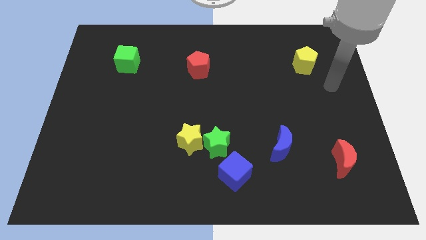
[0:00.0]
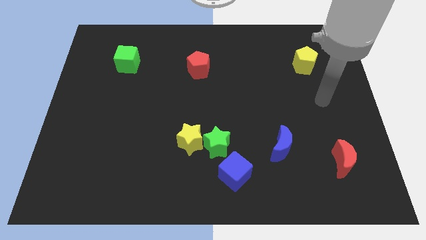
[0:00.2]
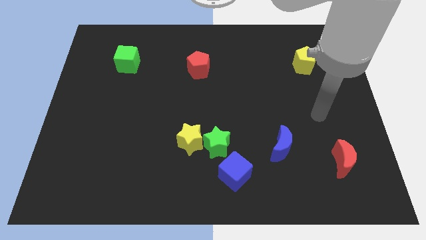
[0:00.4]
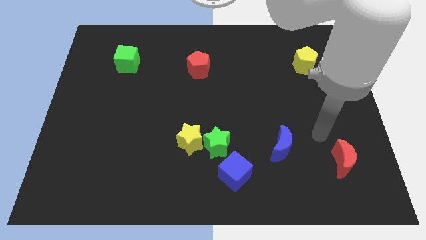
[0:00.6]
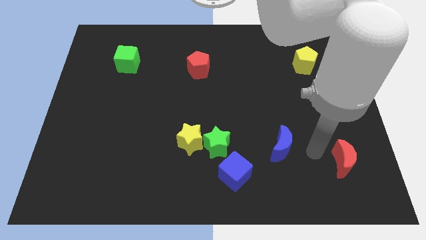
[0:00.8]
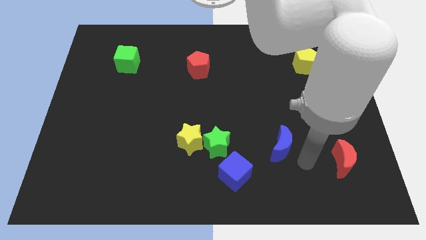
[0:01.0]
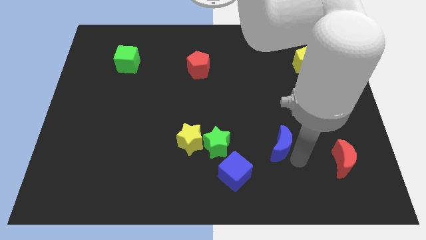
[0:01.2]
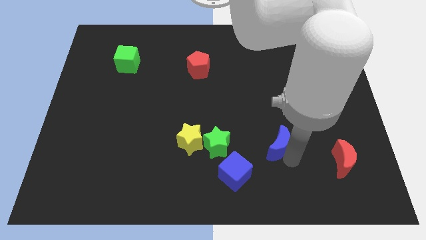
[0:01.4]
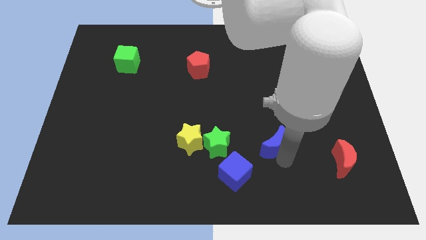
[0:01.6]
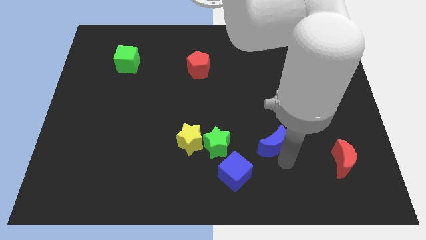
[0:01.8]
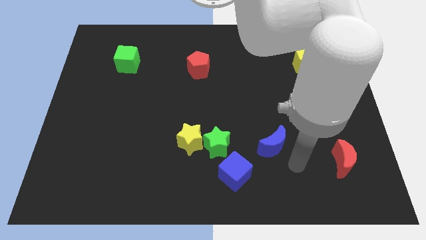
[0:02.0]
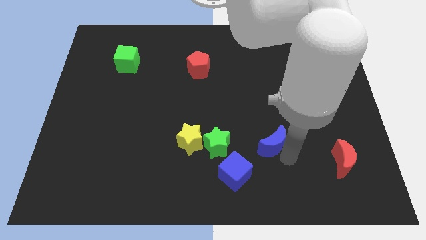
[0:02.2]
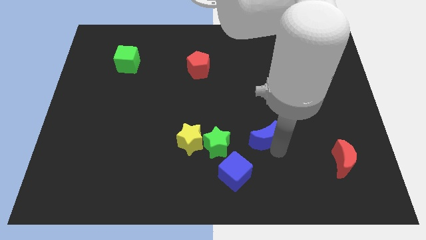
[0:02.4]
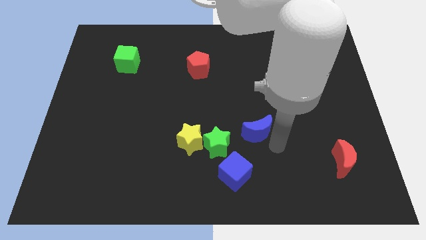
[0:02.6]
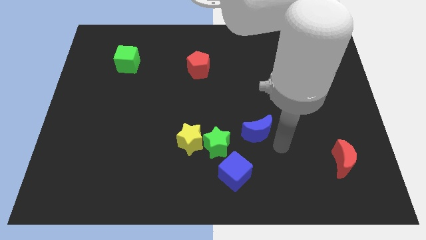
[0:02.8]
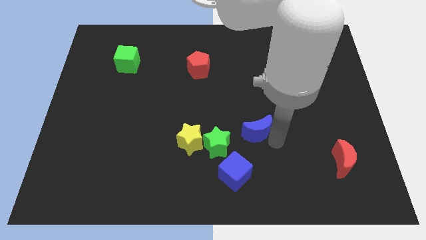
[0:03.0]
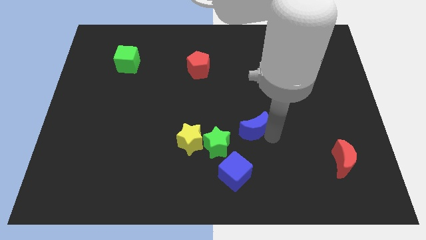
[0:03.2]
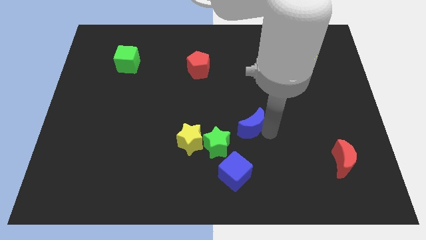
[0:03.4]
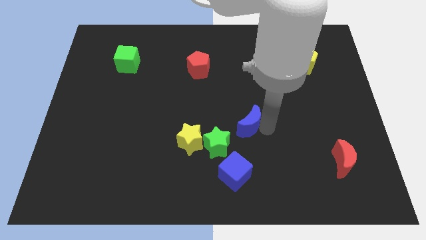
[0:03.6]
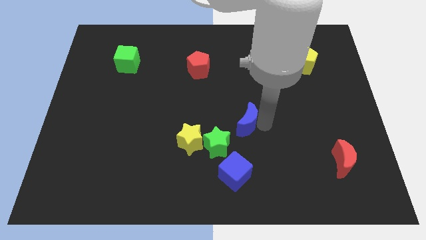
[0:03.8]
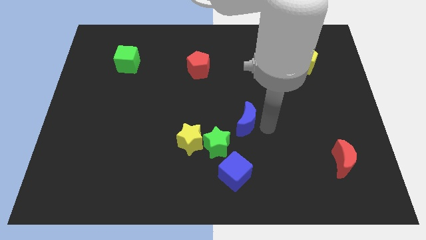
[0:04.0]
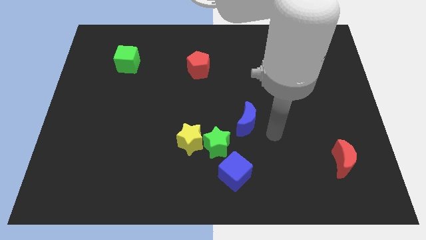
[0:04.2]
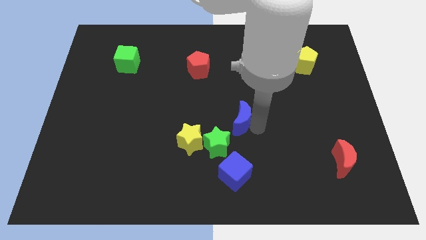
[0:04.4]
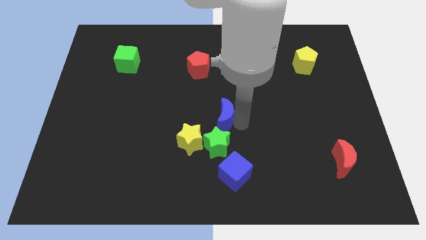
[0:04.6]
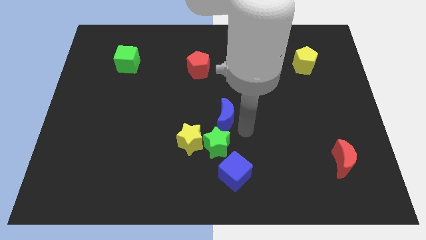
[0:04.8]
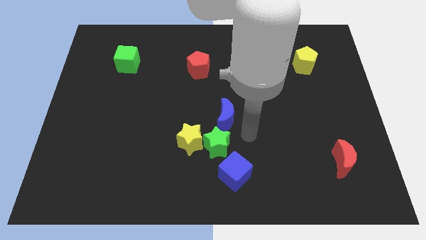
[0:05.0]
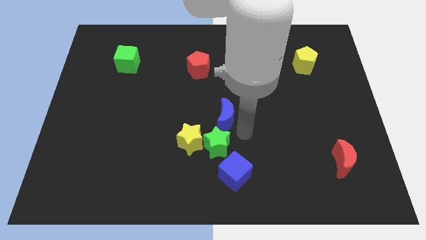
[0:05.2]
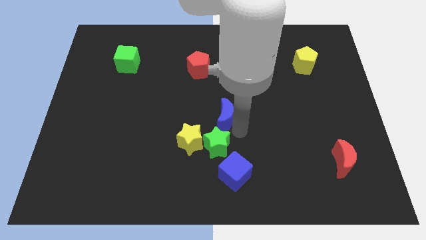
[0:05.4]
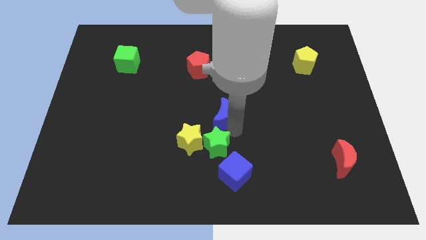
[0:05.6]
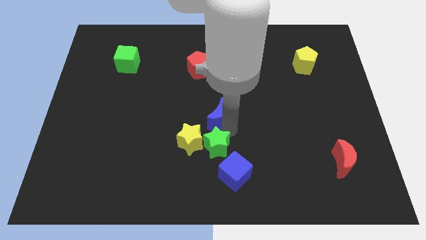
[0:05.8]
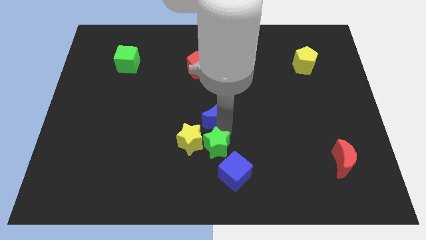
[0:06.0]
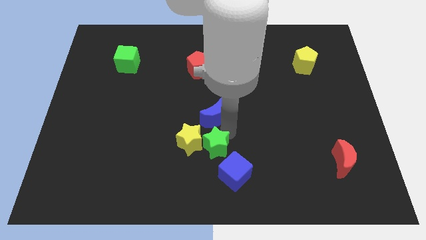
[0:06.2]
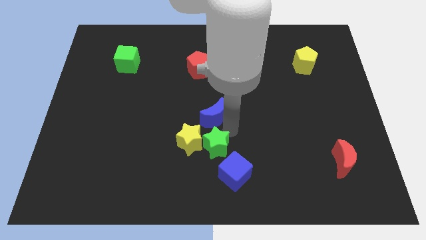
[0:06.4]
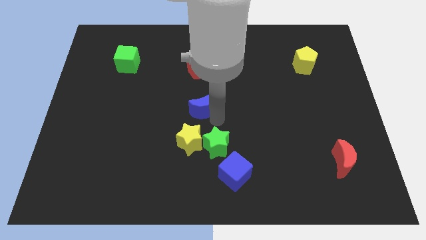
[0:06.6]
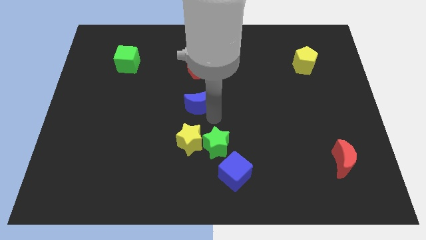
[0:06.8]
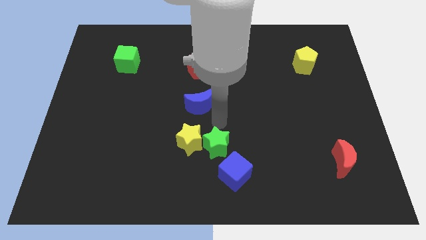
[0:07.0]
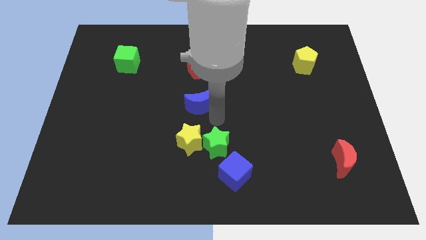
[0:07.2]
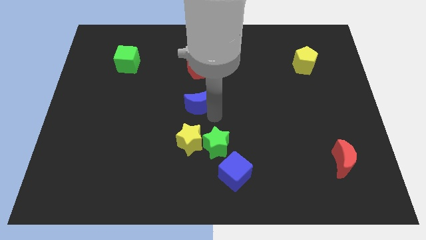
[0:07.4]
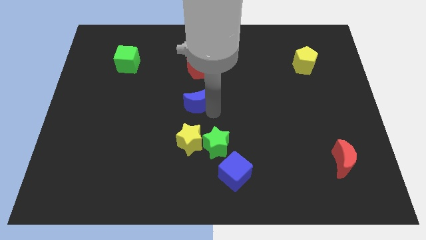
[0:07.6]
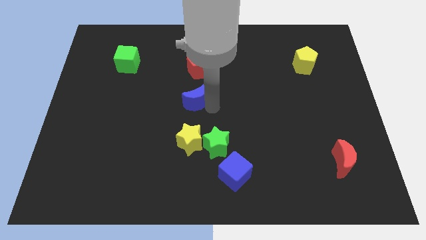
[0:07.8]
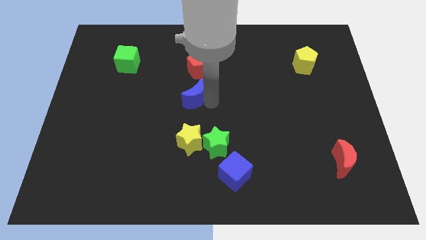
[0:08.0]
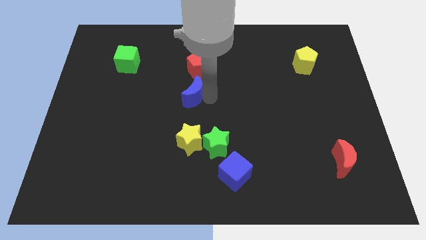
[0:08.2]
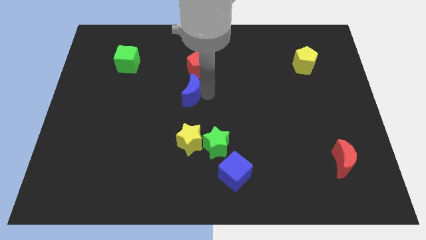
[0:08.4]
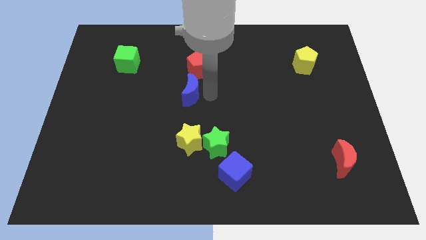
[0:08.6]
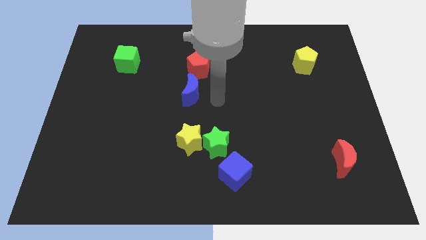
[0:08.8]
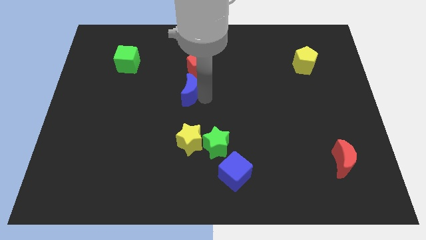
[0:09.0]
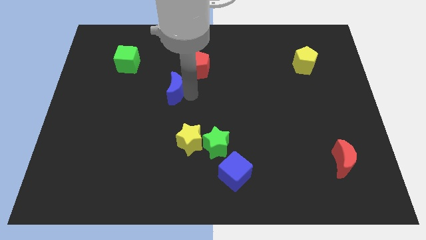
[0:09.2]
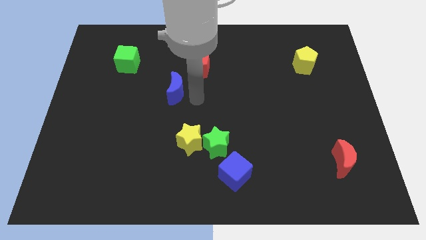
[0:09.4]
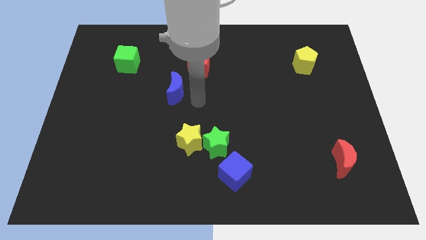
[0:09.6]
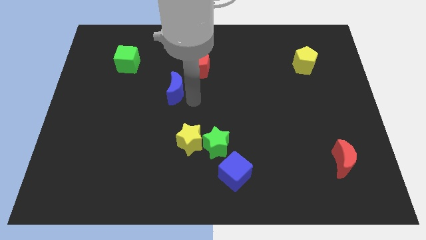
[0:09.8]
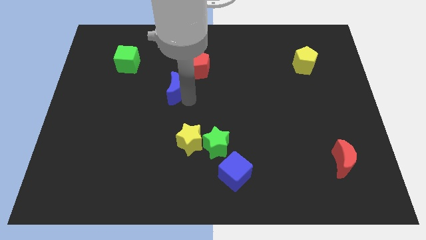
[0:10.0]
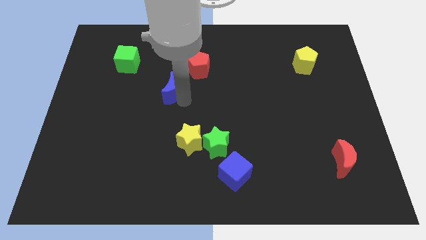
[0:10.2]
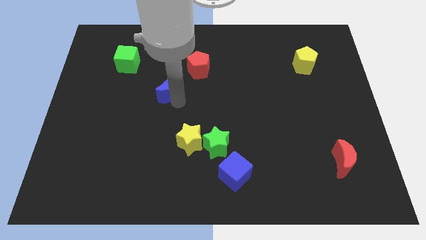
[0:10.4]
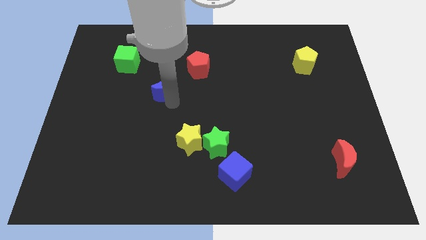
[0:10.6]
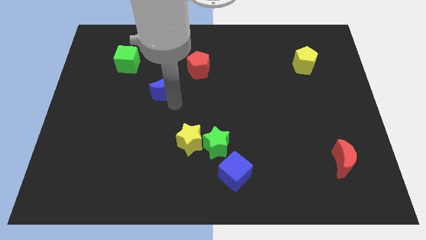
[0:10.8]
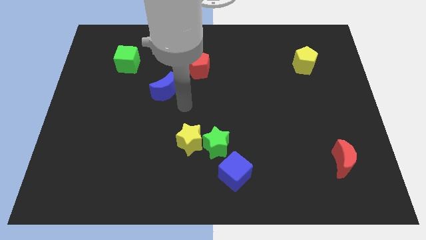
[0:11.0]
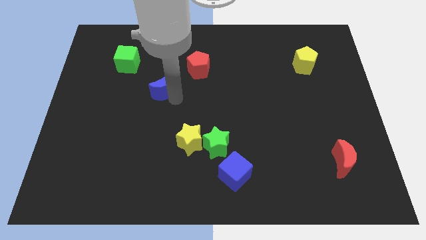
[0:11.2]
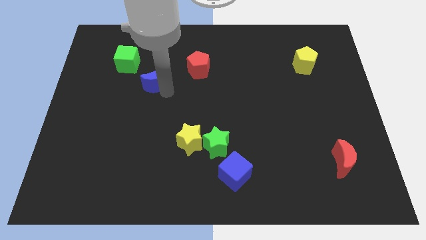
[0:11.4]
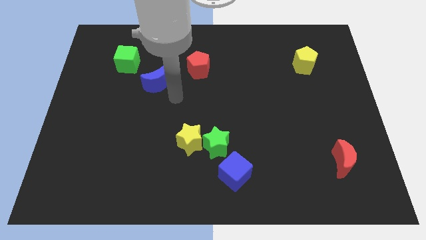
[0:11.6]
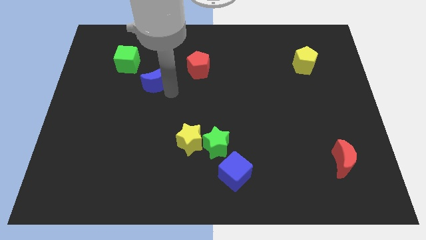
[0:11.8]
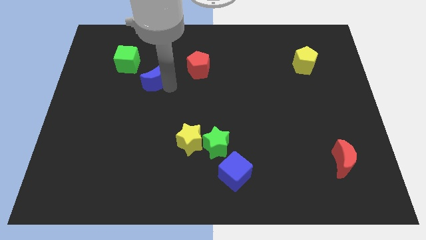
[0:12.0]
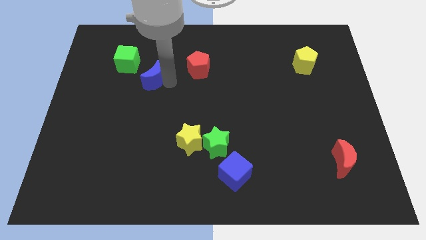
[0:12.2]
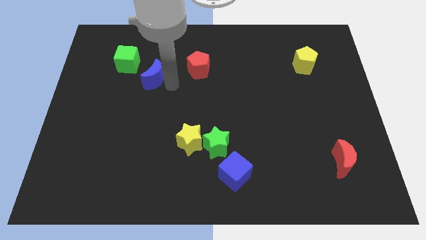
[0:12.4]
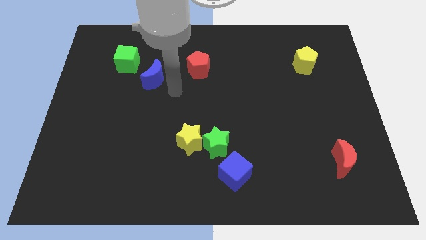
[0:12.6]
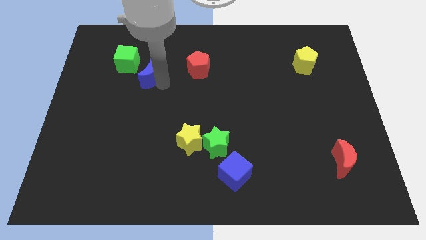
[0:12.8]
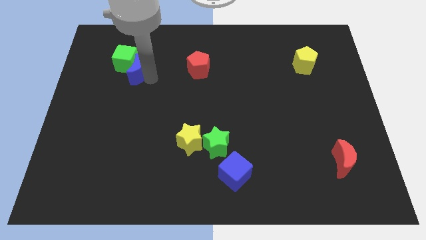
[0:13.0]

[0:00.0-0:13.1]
move the blue moon towards the green cube

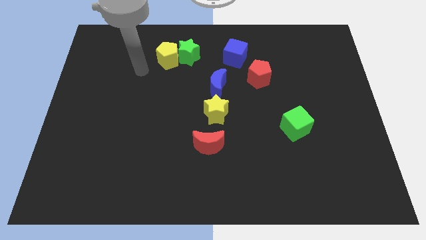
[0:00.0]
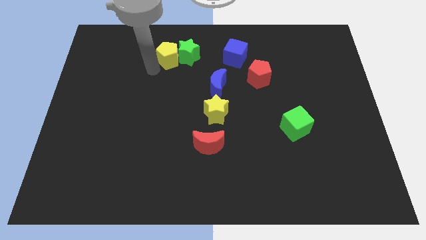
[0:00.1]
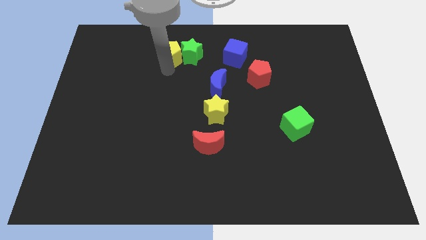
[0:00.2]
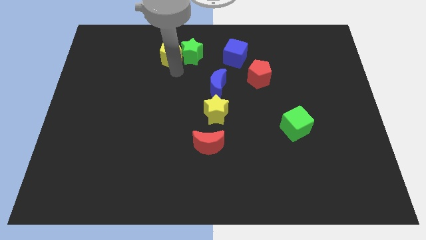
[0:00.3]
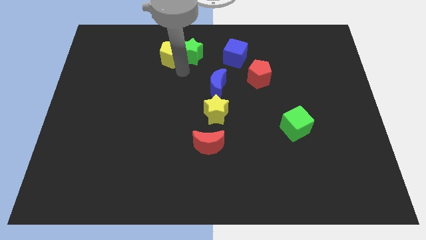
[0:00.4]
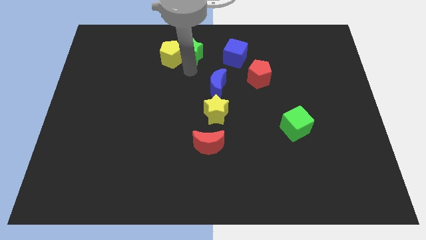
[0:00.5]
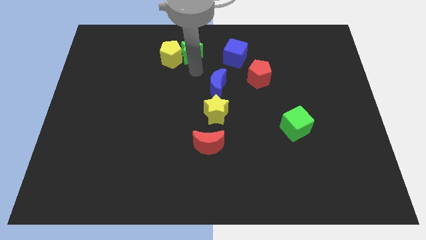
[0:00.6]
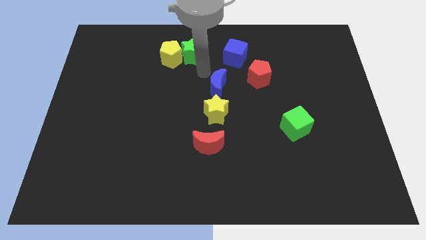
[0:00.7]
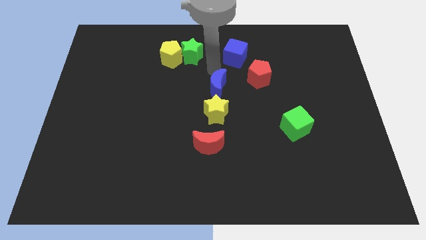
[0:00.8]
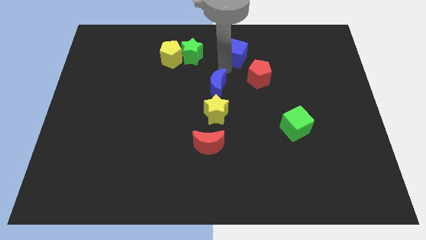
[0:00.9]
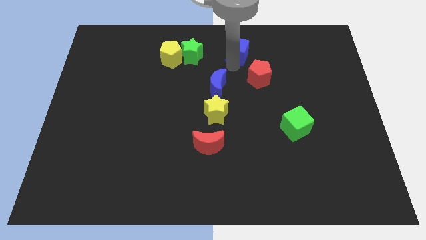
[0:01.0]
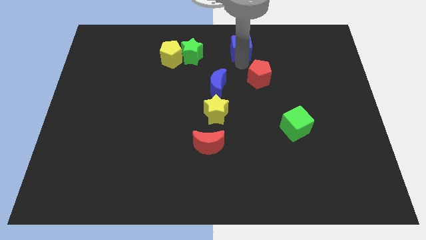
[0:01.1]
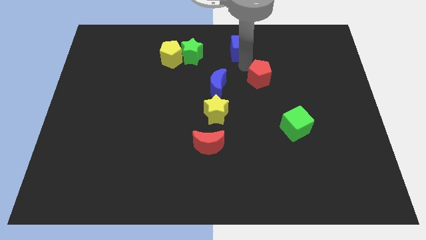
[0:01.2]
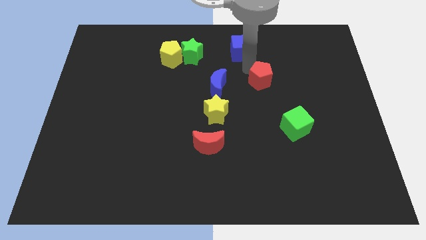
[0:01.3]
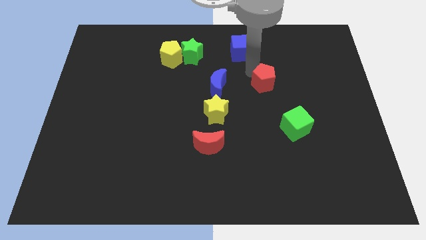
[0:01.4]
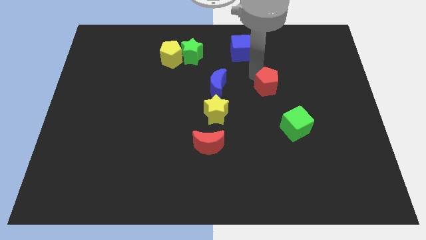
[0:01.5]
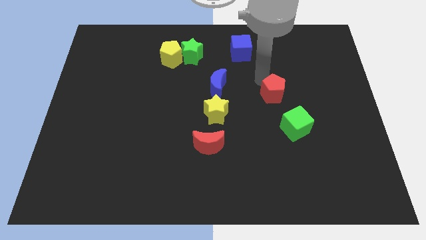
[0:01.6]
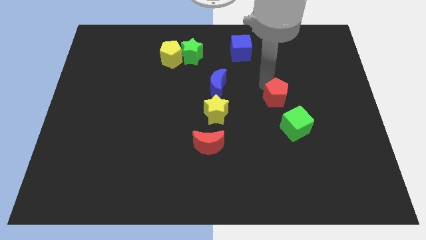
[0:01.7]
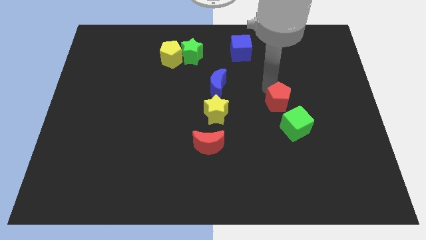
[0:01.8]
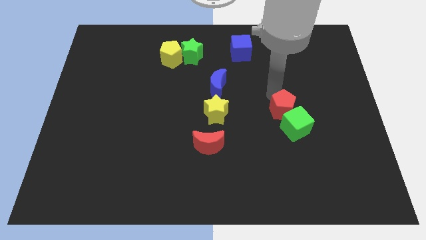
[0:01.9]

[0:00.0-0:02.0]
slide the red pentagon next to the green cube
